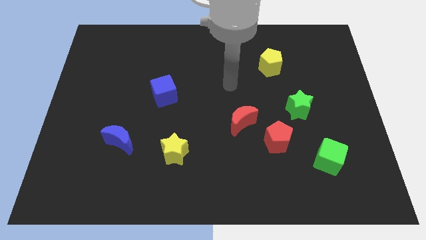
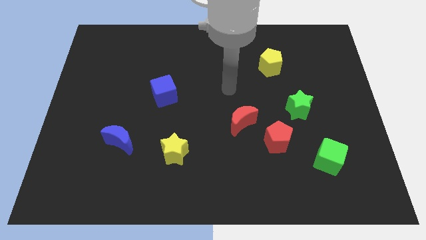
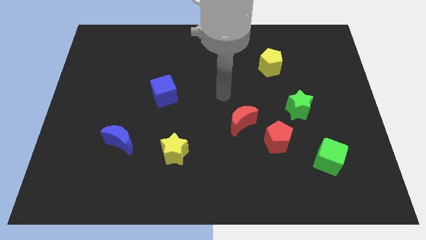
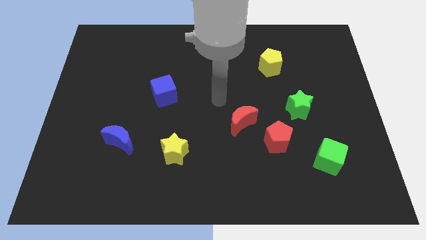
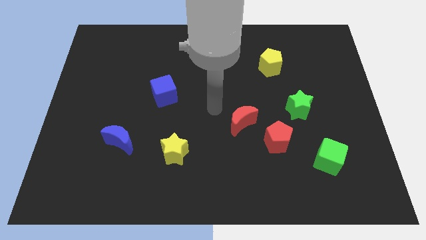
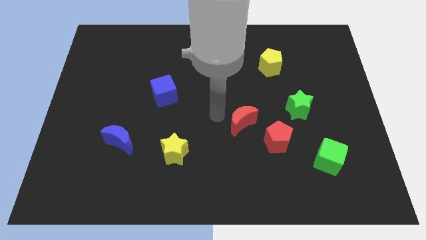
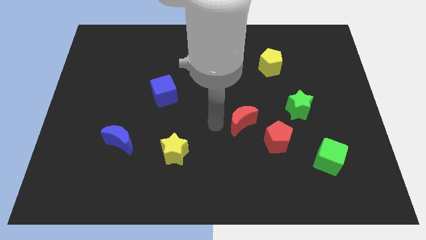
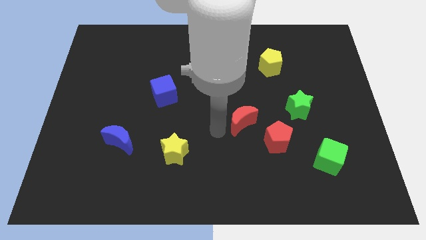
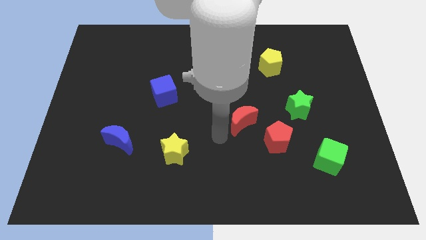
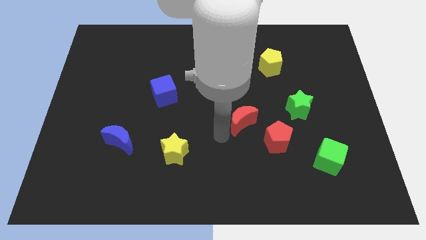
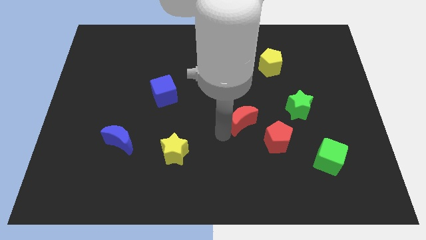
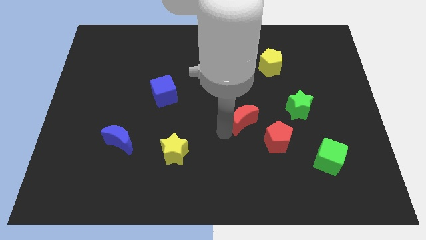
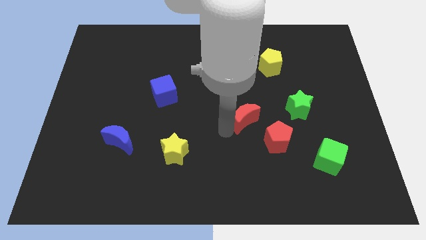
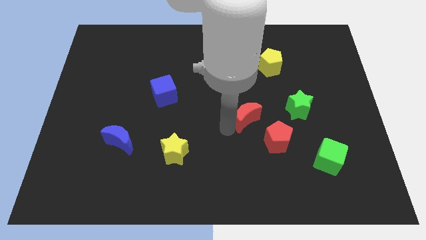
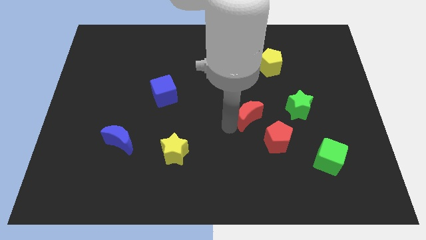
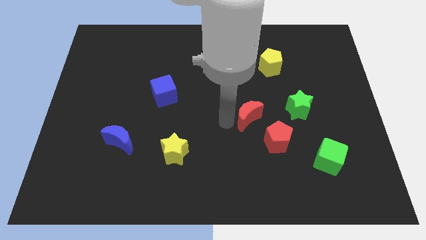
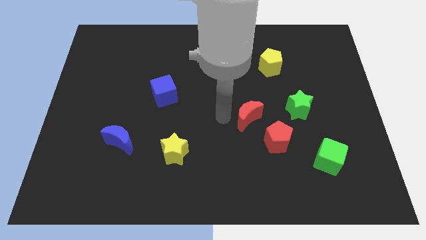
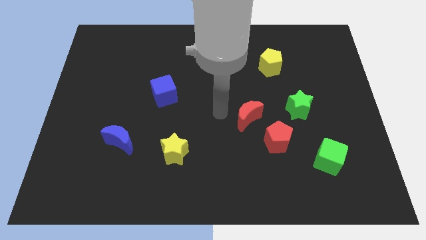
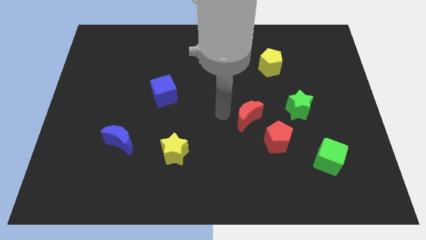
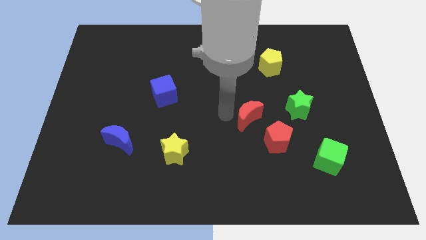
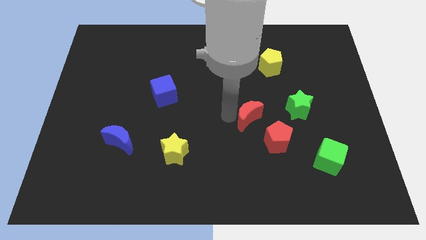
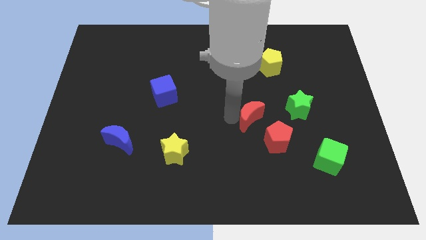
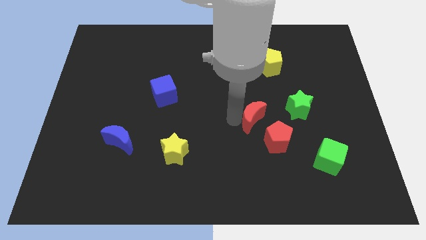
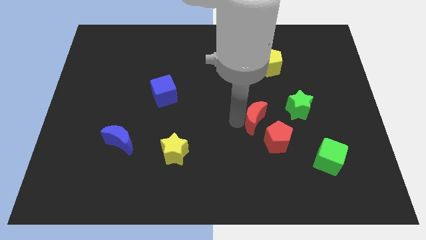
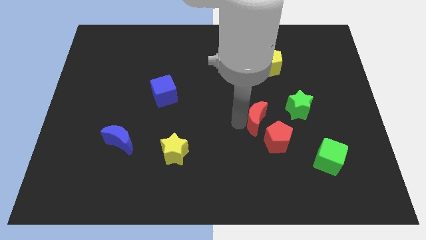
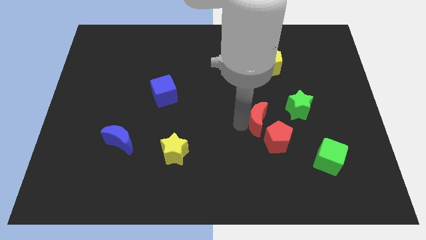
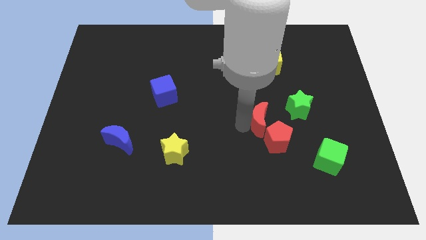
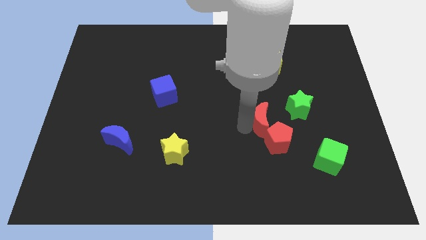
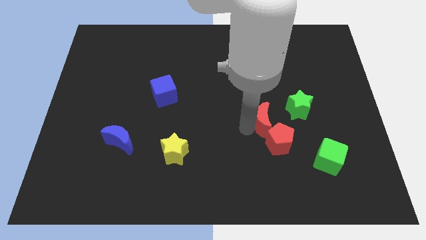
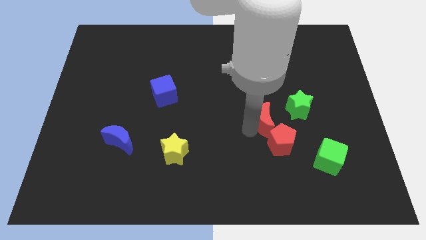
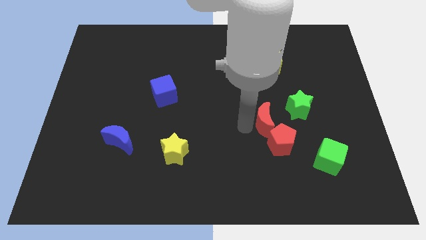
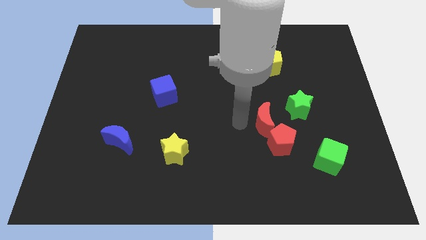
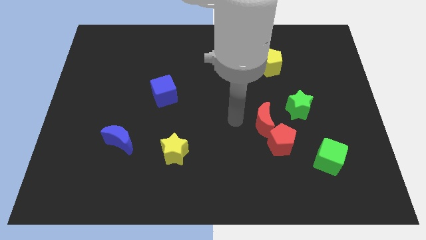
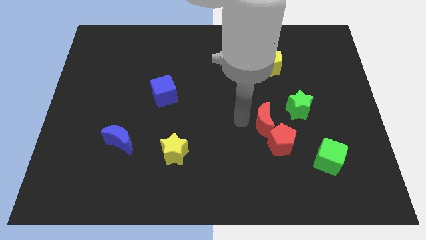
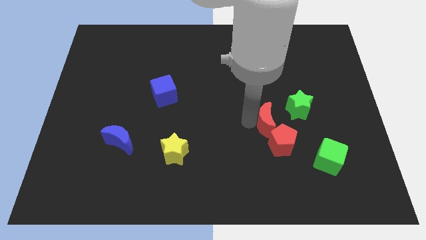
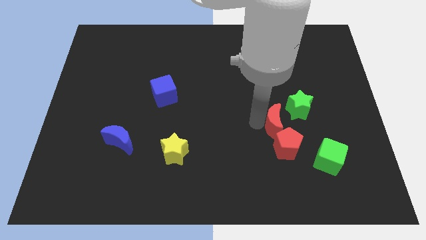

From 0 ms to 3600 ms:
slightly push the red moon to the right

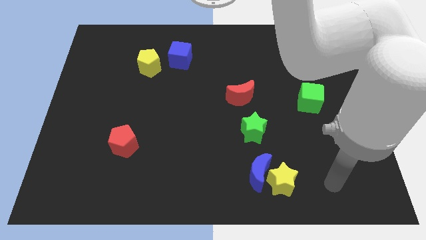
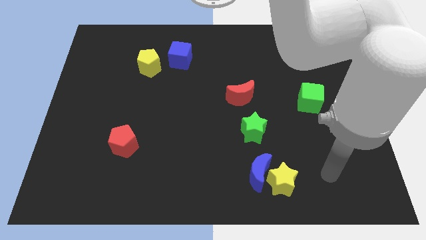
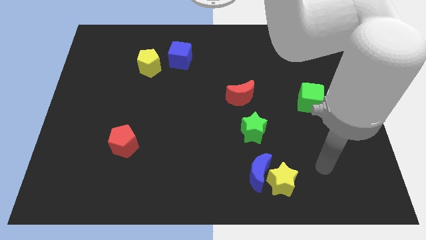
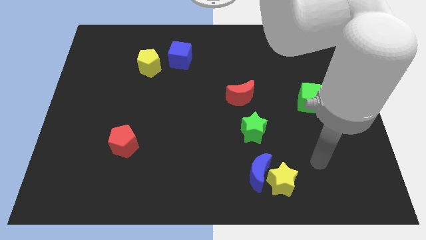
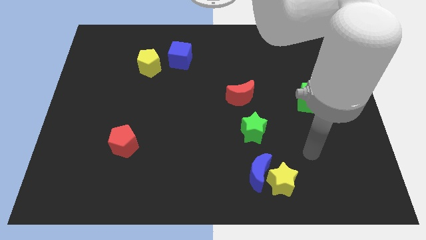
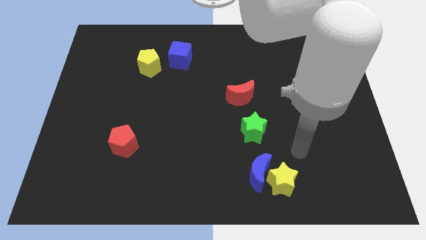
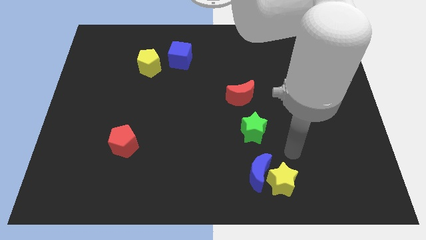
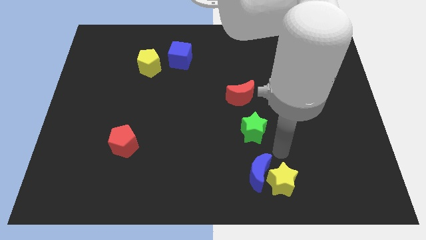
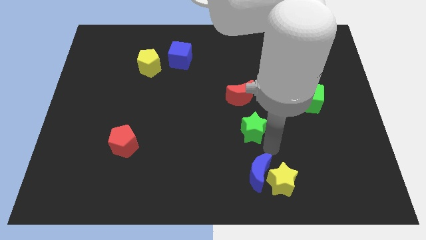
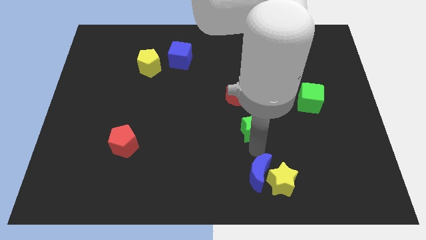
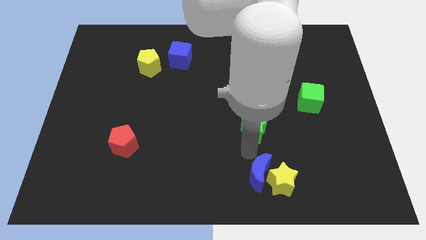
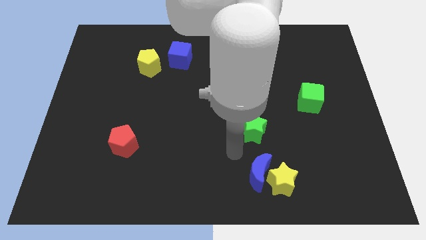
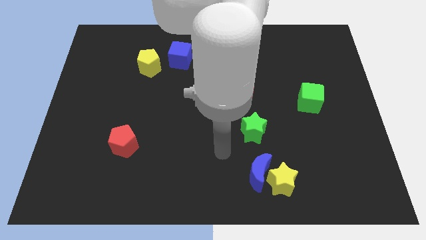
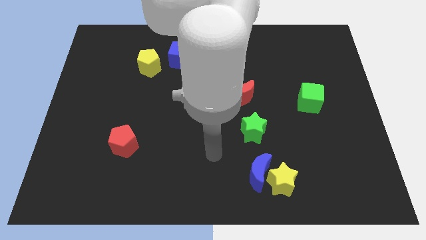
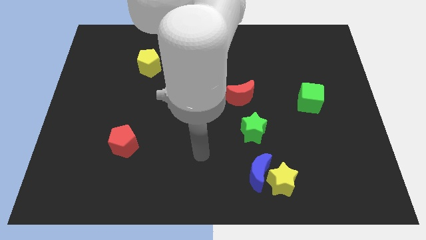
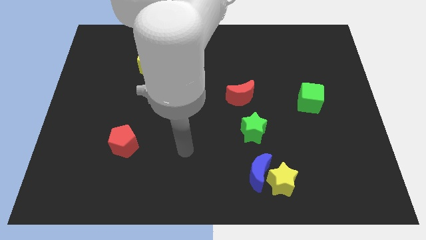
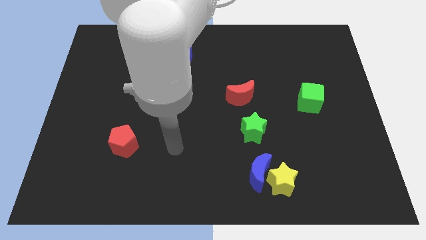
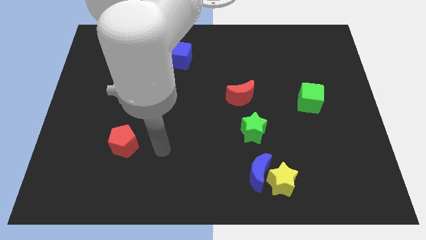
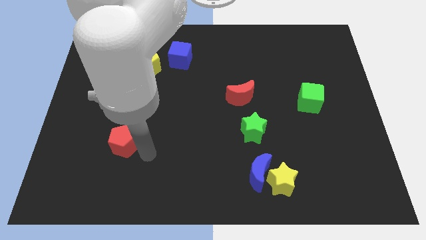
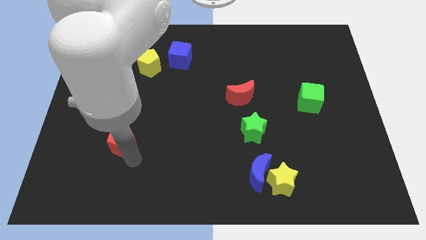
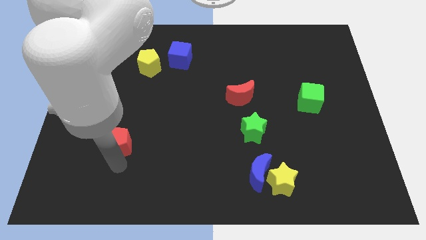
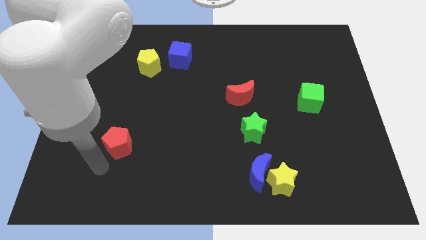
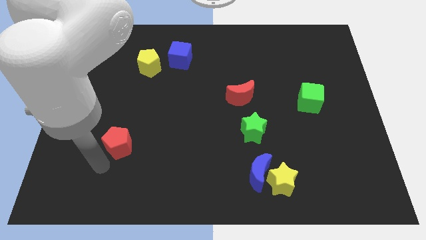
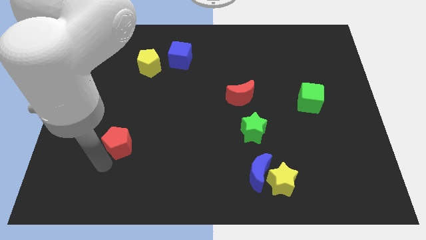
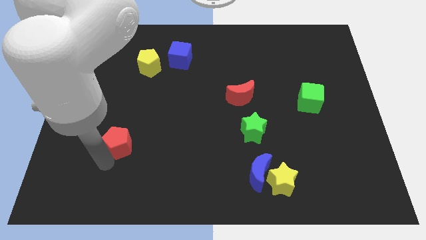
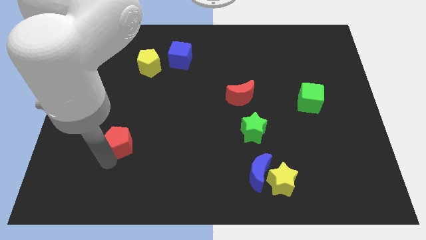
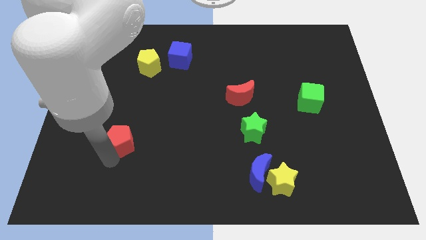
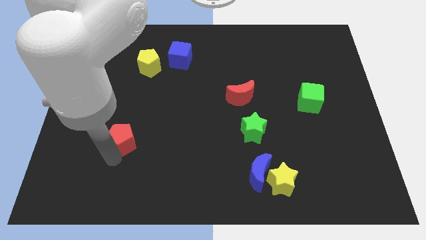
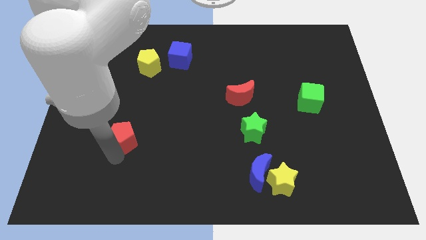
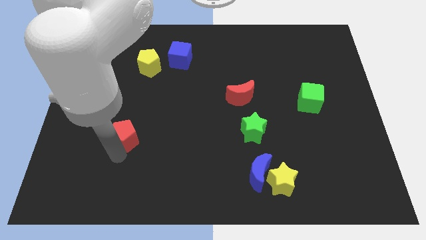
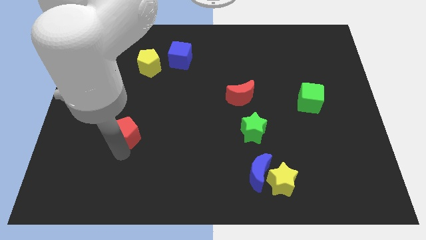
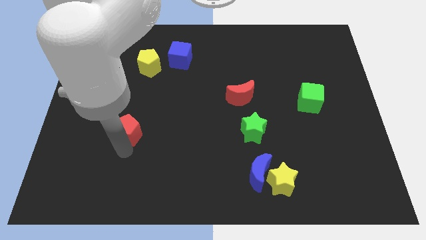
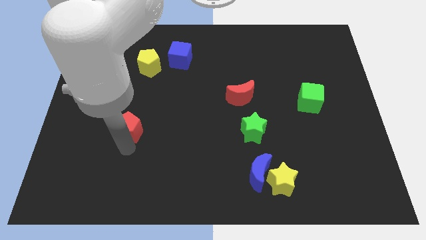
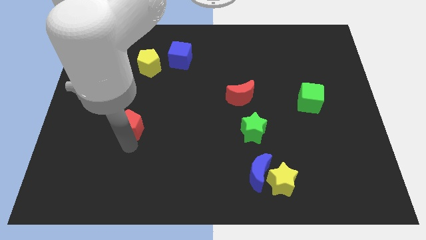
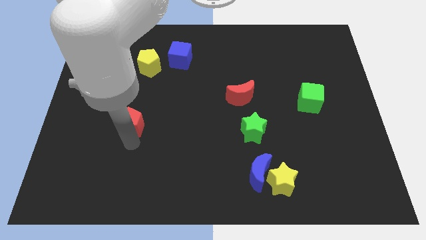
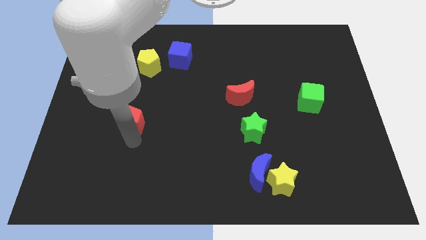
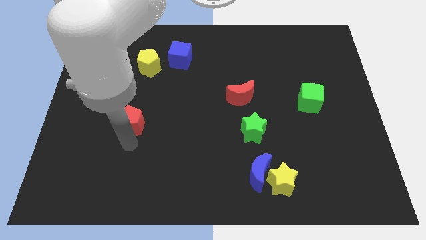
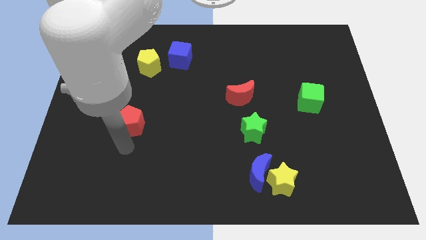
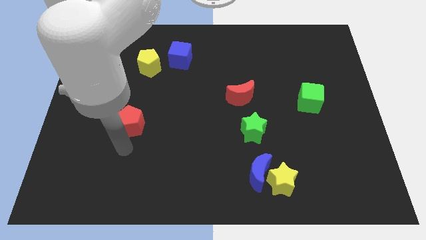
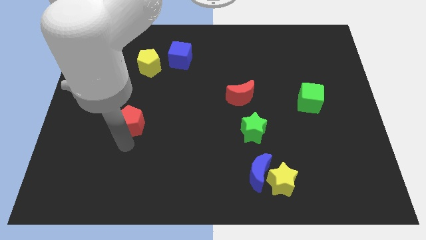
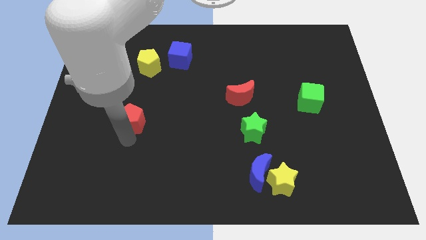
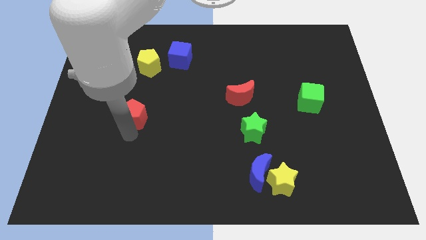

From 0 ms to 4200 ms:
slightly push the red pentagon upwards

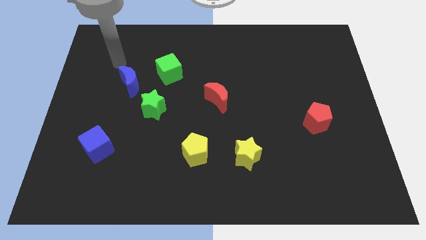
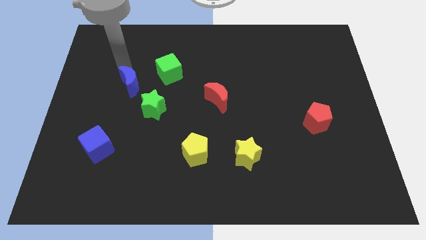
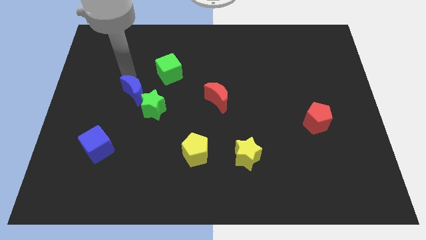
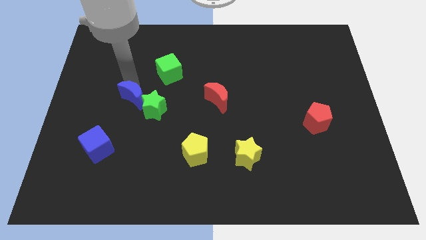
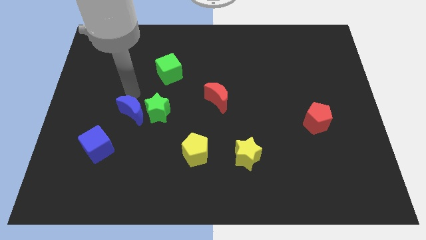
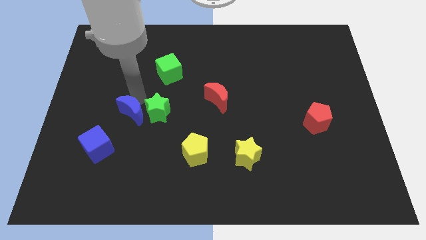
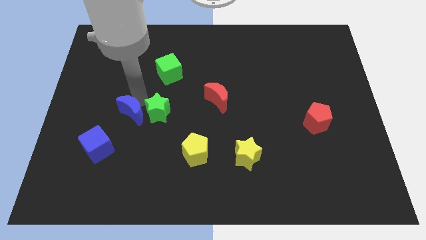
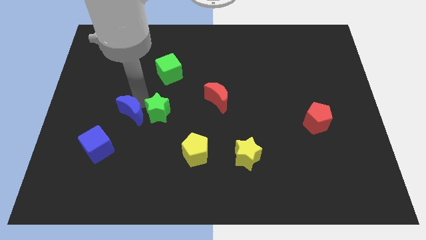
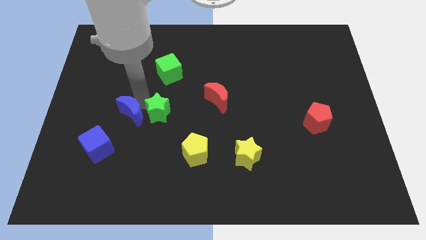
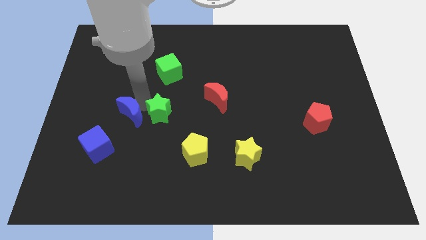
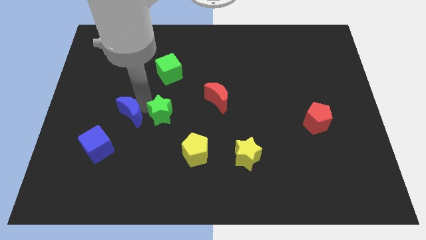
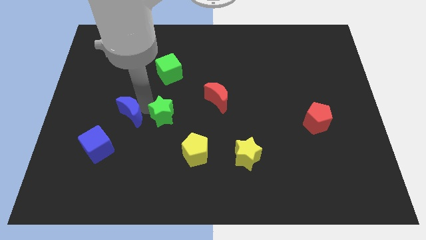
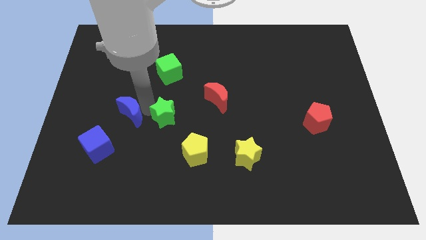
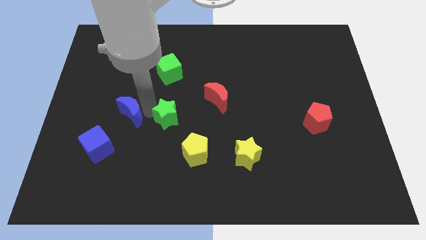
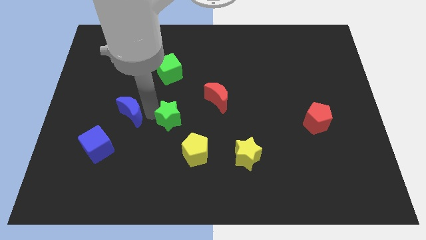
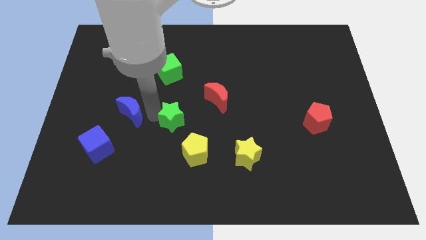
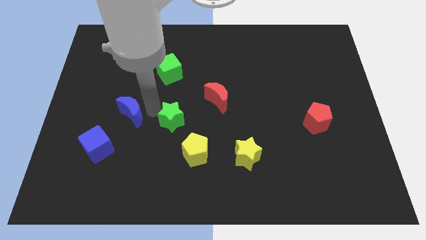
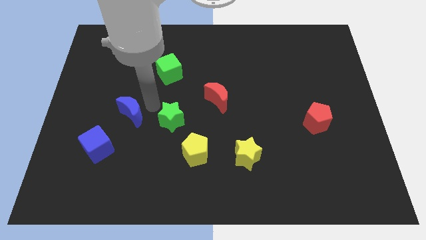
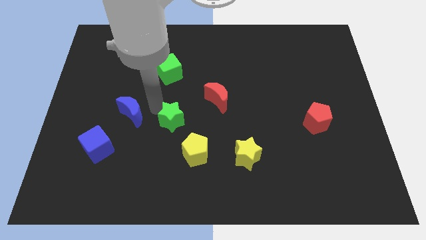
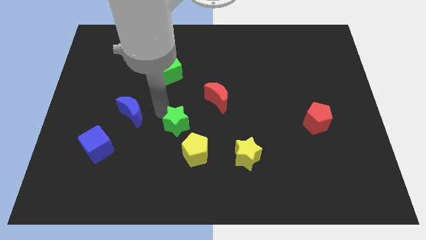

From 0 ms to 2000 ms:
slightly slide the green star diagonally down and right
